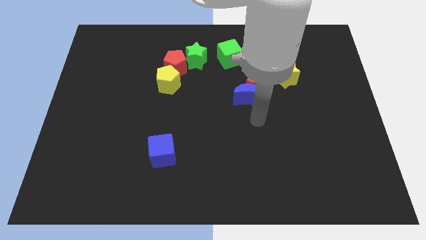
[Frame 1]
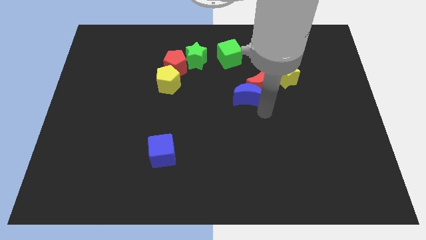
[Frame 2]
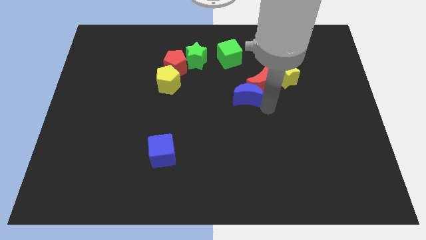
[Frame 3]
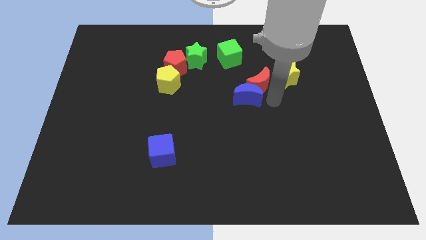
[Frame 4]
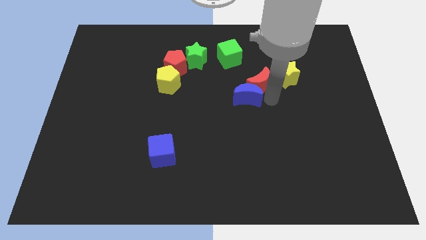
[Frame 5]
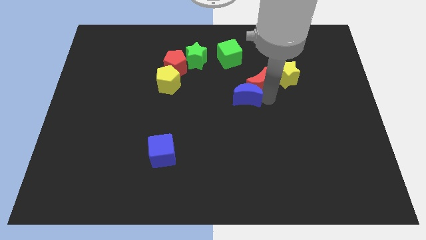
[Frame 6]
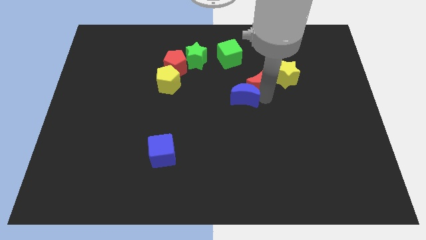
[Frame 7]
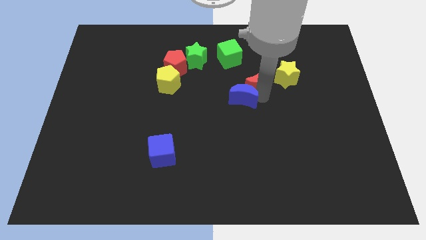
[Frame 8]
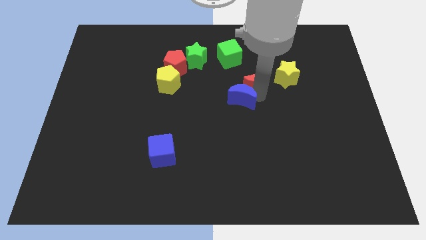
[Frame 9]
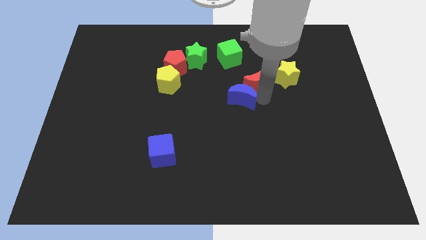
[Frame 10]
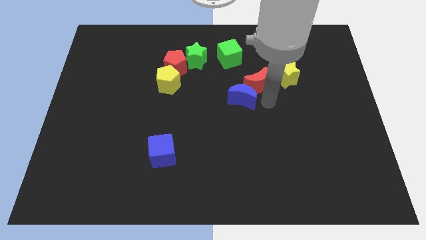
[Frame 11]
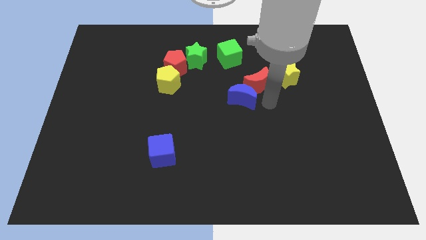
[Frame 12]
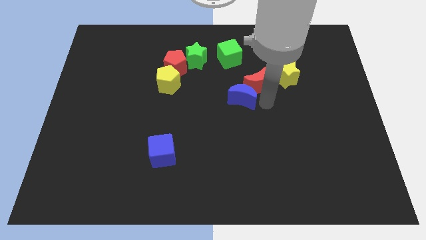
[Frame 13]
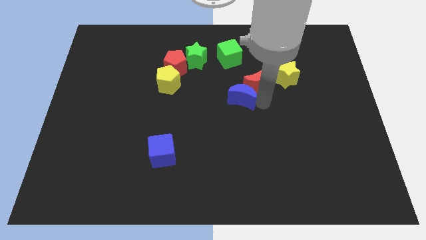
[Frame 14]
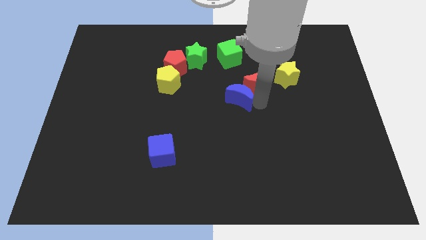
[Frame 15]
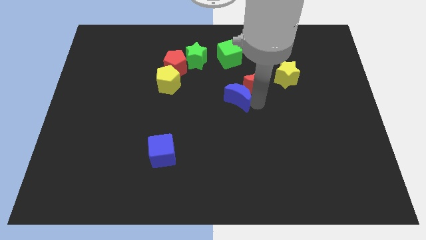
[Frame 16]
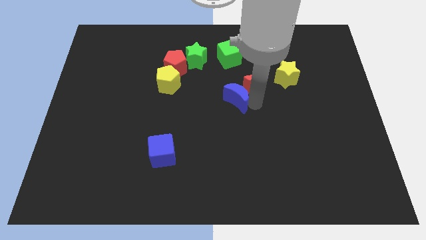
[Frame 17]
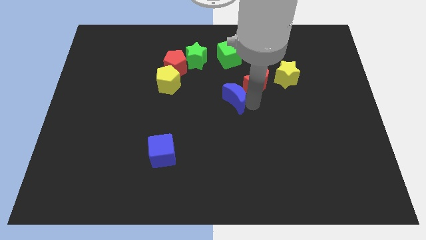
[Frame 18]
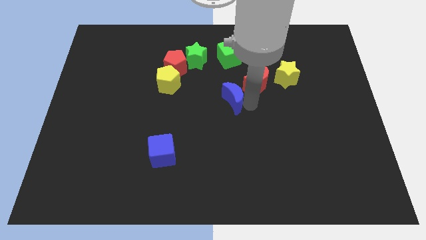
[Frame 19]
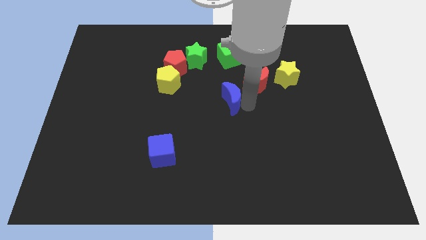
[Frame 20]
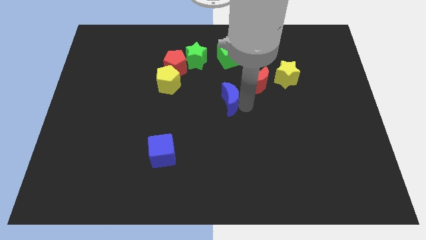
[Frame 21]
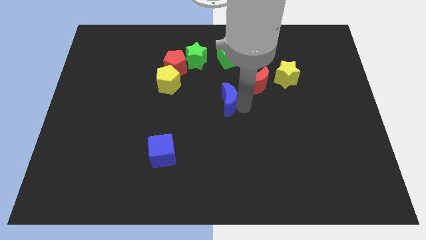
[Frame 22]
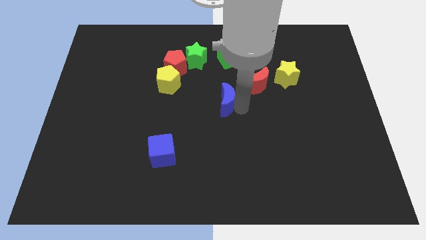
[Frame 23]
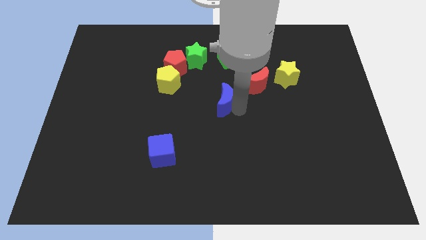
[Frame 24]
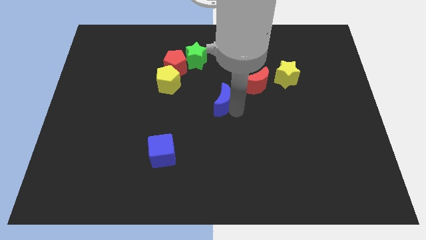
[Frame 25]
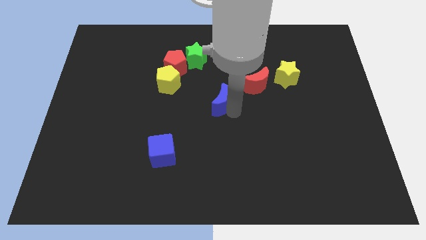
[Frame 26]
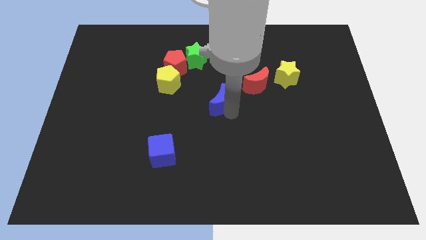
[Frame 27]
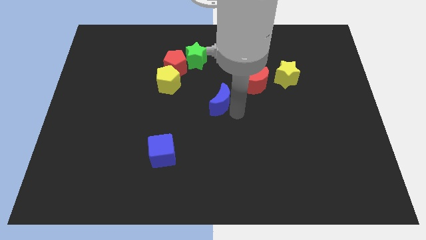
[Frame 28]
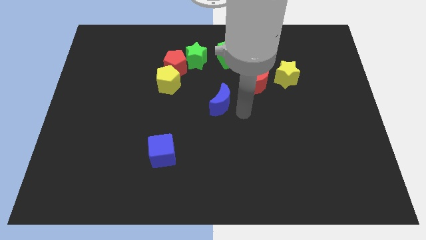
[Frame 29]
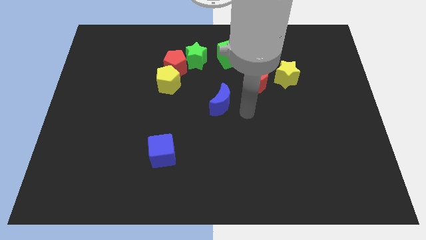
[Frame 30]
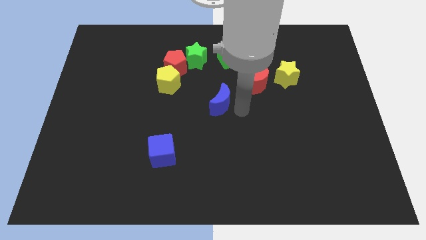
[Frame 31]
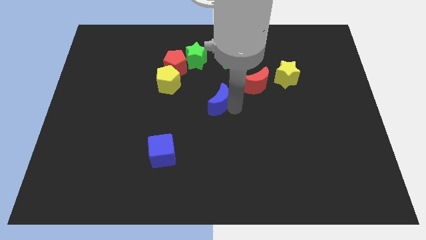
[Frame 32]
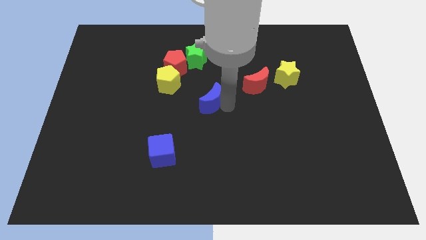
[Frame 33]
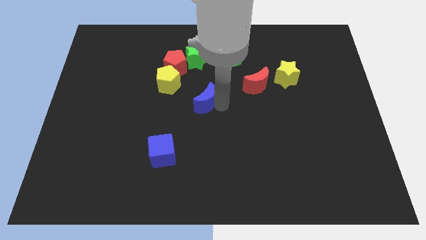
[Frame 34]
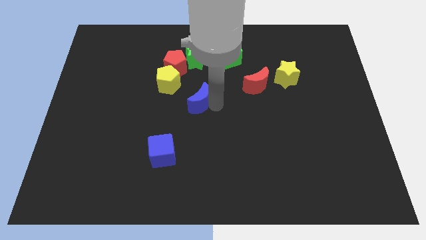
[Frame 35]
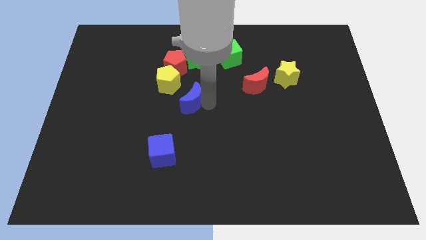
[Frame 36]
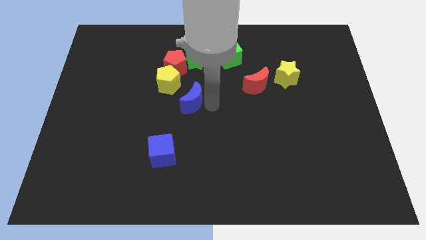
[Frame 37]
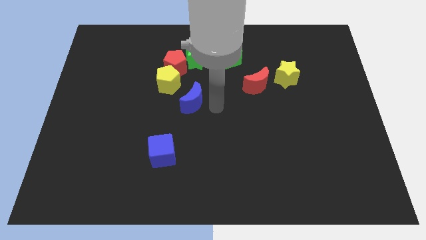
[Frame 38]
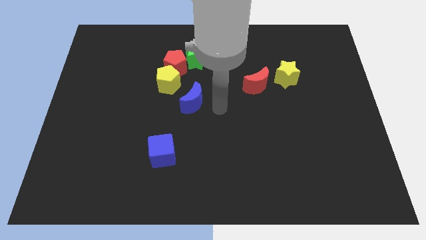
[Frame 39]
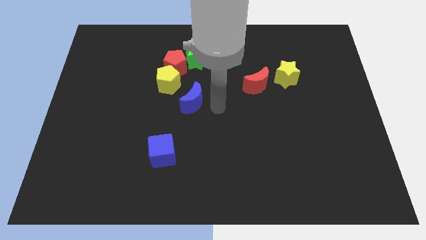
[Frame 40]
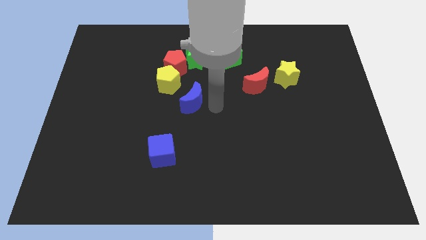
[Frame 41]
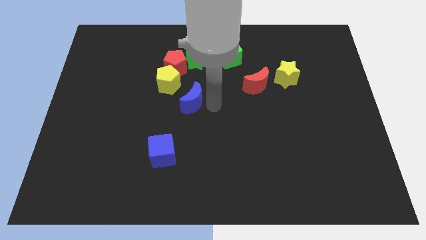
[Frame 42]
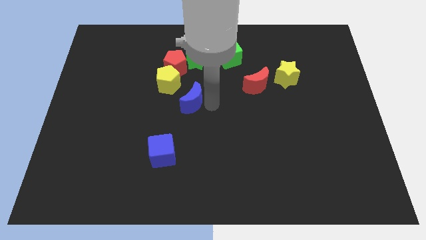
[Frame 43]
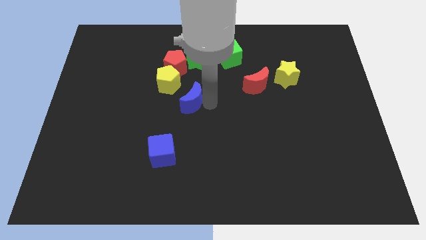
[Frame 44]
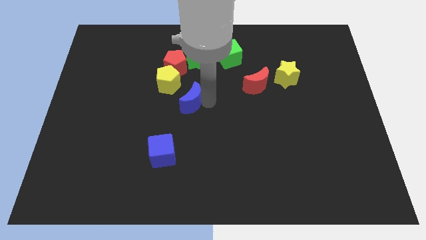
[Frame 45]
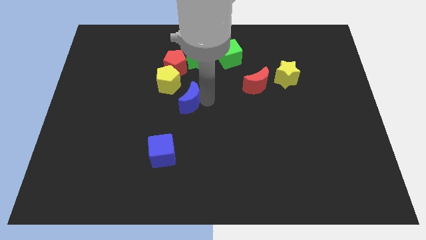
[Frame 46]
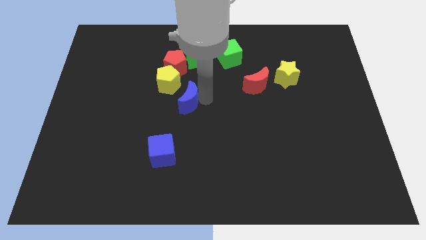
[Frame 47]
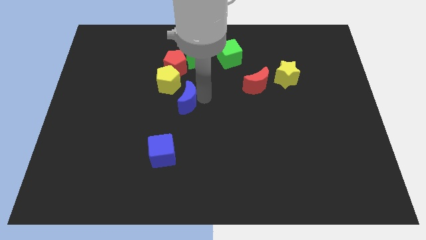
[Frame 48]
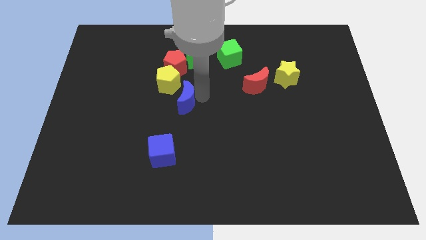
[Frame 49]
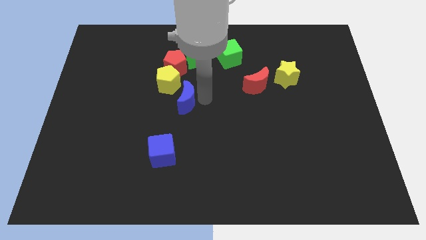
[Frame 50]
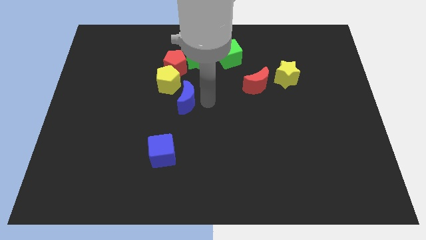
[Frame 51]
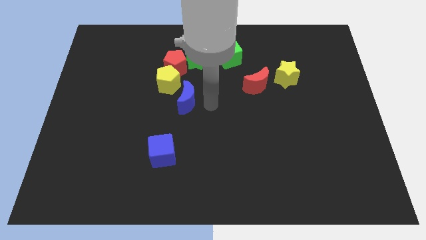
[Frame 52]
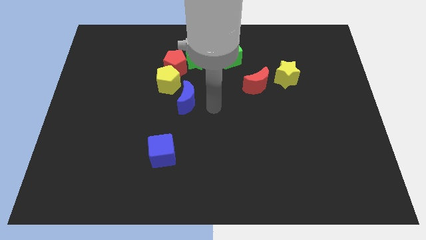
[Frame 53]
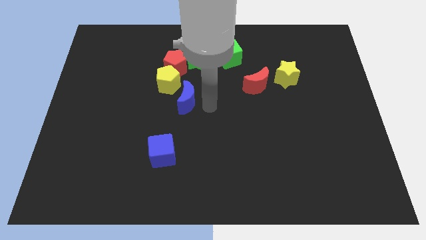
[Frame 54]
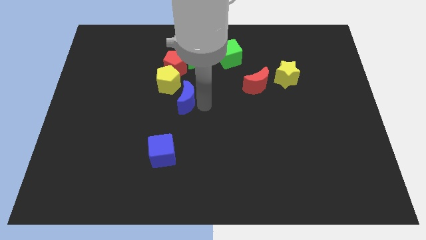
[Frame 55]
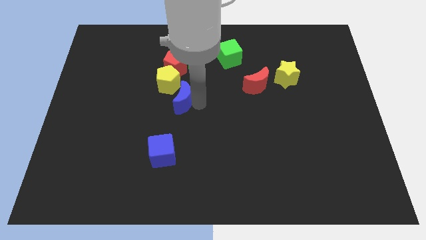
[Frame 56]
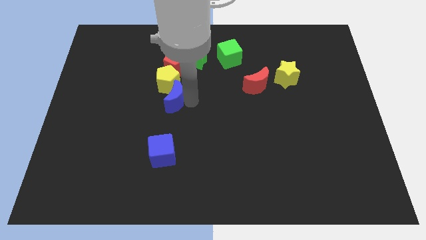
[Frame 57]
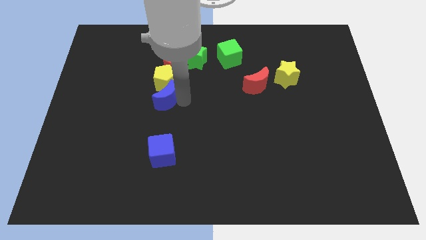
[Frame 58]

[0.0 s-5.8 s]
slide the blue moon diagonally down and to the left of the yellow pentagon

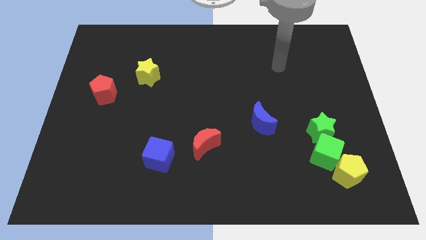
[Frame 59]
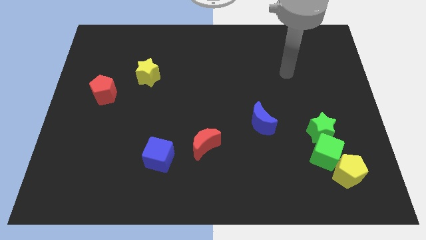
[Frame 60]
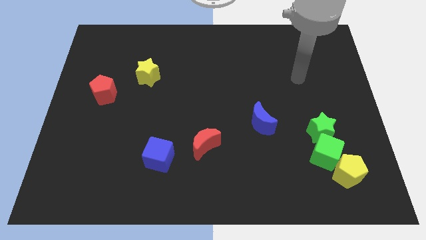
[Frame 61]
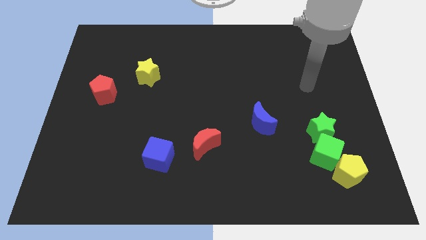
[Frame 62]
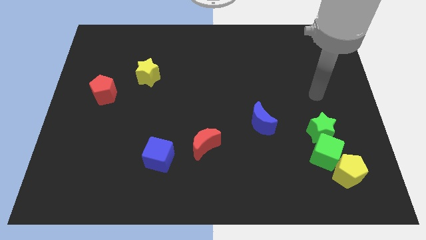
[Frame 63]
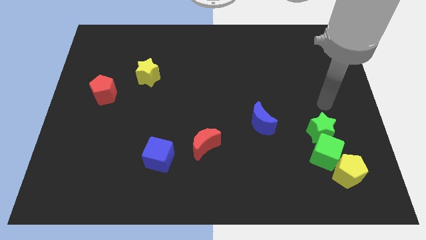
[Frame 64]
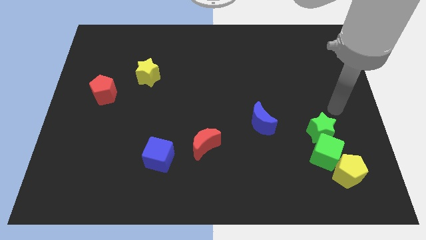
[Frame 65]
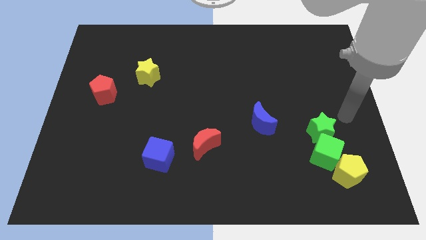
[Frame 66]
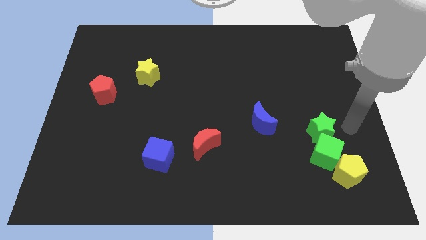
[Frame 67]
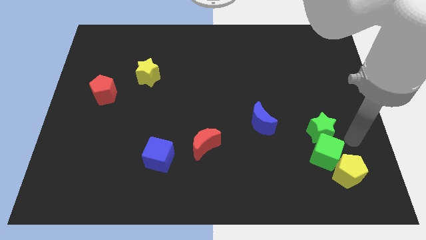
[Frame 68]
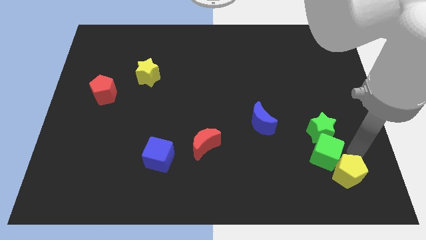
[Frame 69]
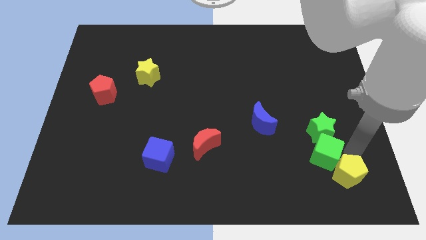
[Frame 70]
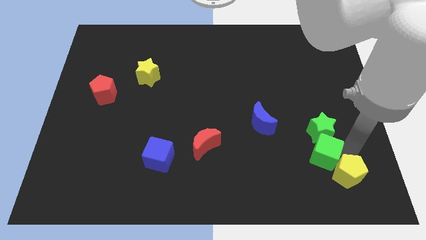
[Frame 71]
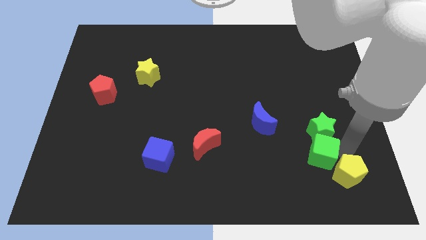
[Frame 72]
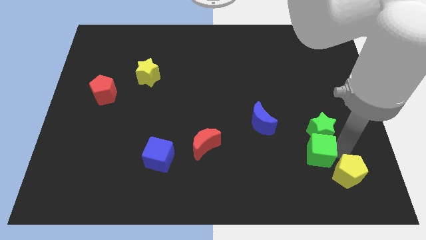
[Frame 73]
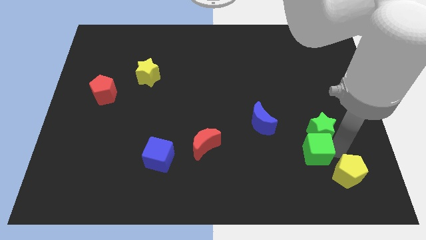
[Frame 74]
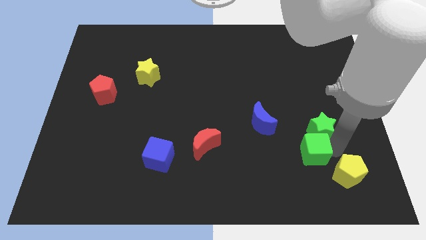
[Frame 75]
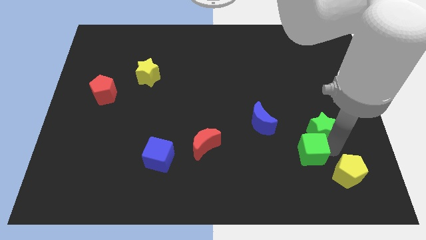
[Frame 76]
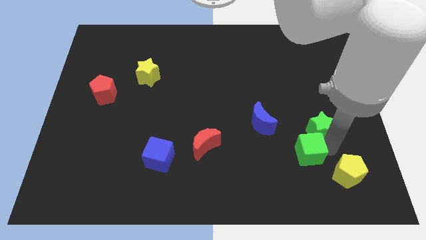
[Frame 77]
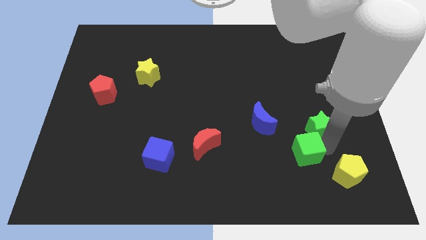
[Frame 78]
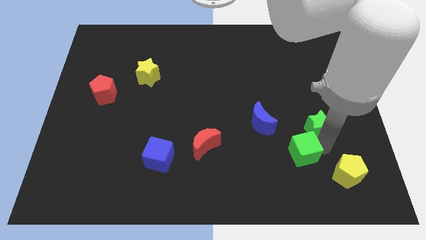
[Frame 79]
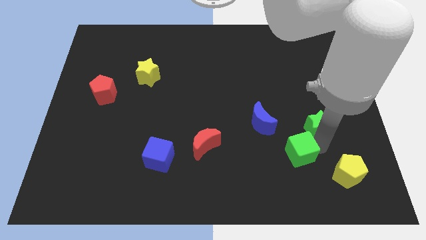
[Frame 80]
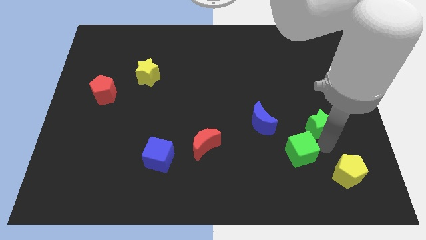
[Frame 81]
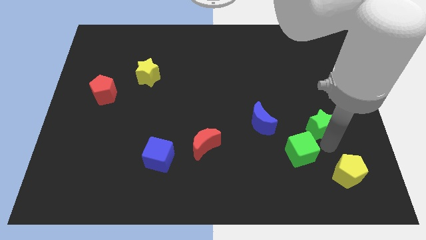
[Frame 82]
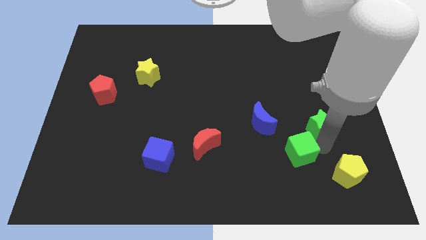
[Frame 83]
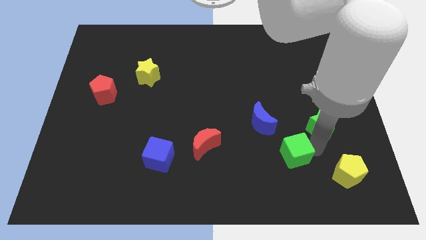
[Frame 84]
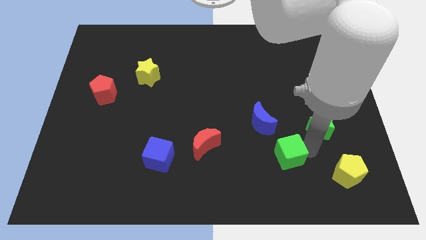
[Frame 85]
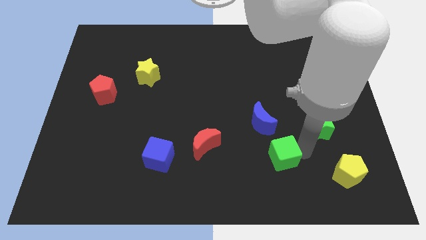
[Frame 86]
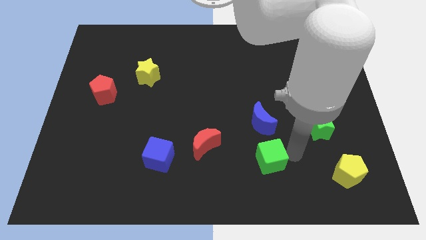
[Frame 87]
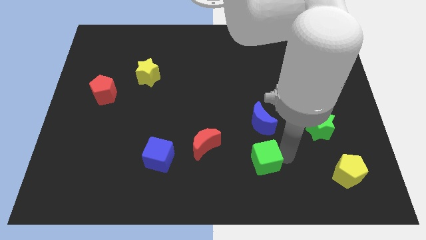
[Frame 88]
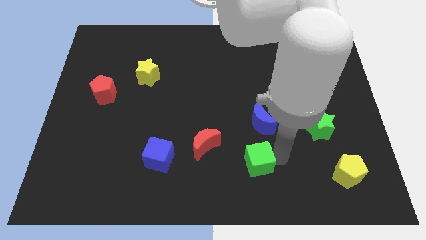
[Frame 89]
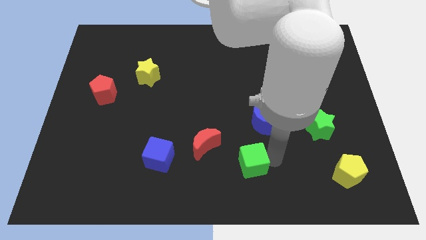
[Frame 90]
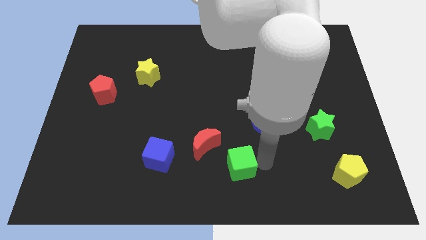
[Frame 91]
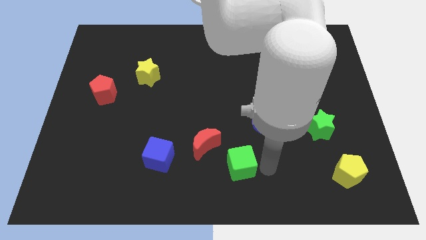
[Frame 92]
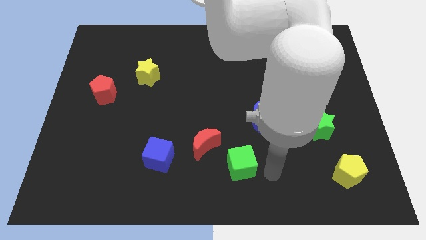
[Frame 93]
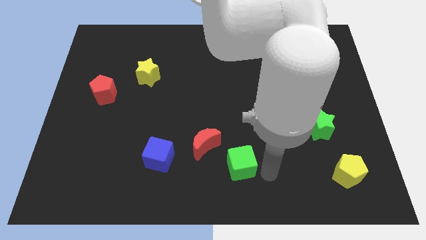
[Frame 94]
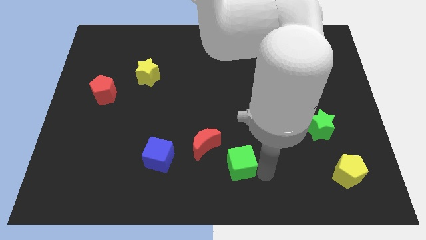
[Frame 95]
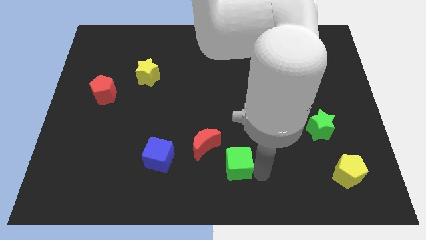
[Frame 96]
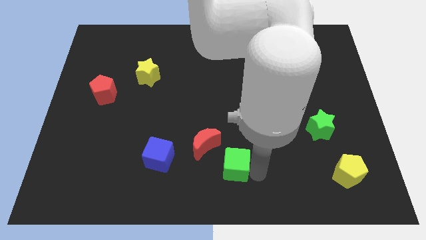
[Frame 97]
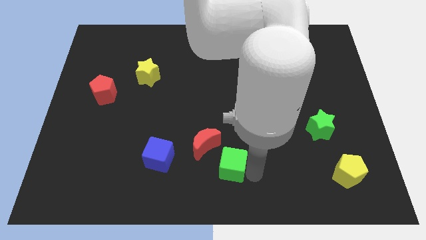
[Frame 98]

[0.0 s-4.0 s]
put the green cube to the right side of the blue cube
